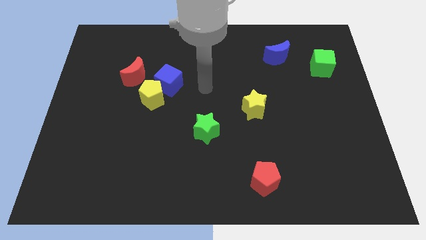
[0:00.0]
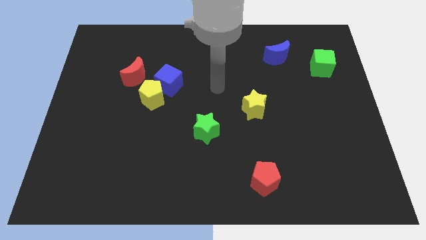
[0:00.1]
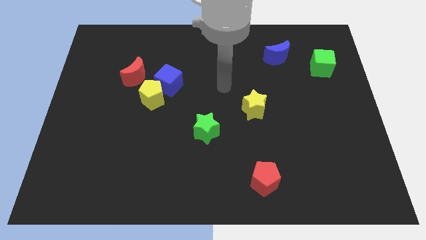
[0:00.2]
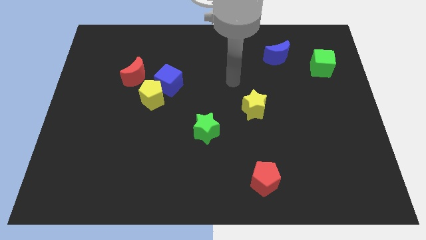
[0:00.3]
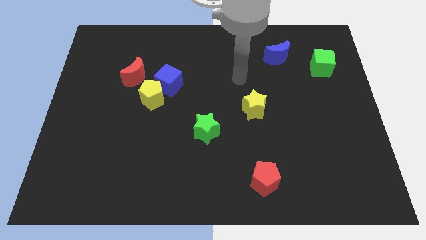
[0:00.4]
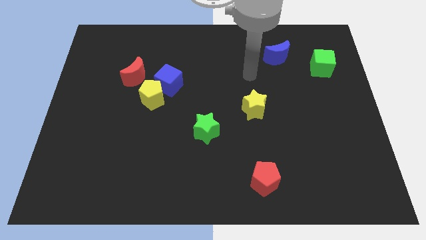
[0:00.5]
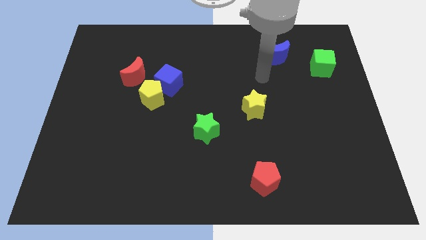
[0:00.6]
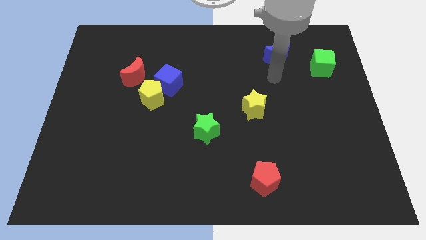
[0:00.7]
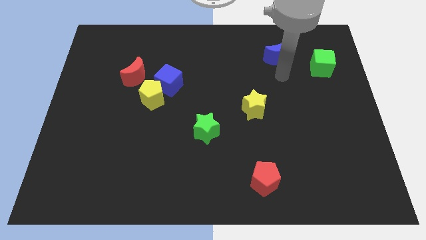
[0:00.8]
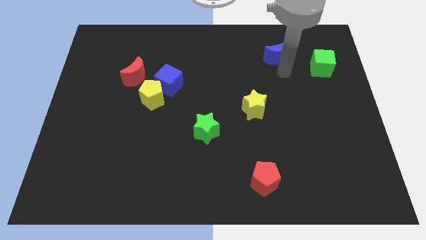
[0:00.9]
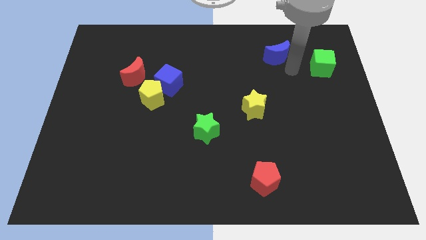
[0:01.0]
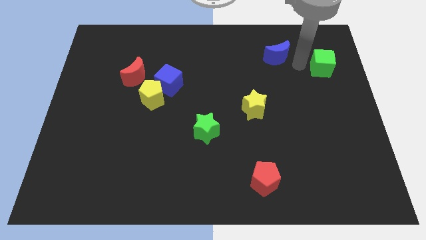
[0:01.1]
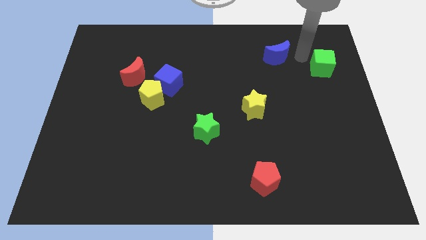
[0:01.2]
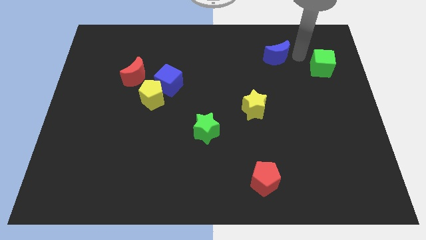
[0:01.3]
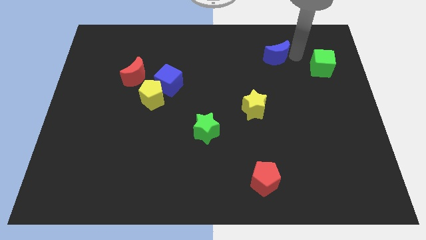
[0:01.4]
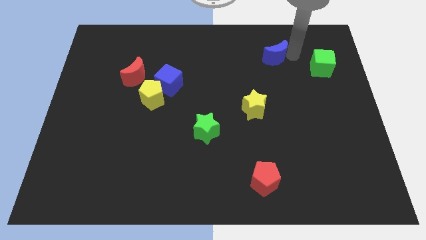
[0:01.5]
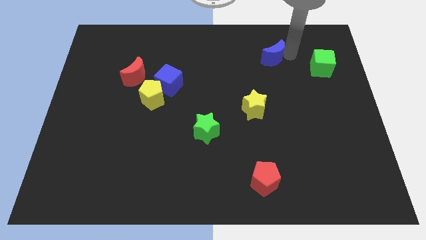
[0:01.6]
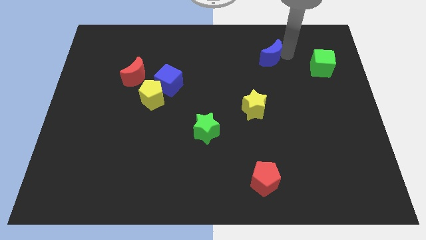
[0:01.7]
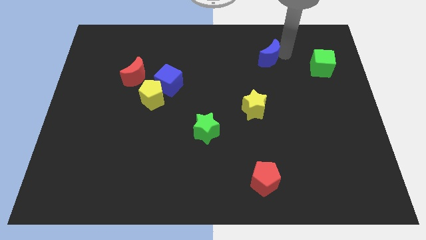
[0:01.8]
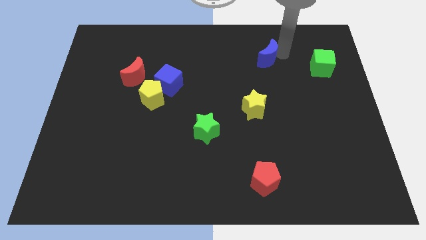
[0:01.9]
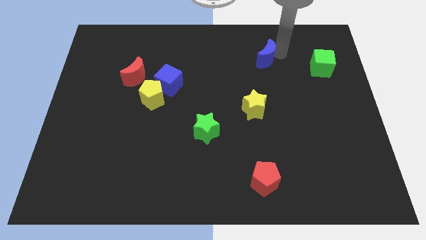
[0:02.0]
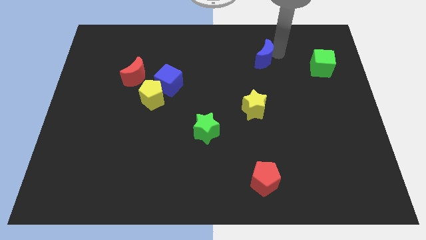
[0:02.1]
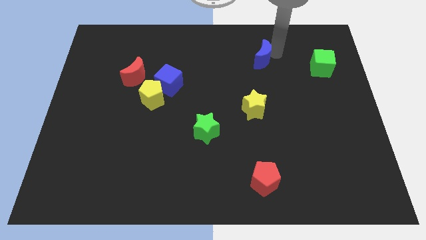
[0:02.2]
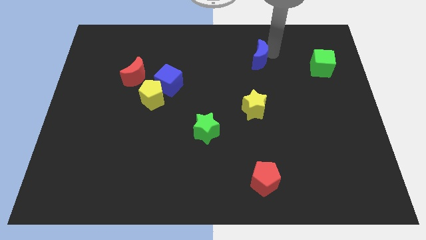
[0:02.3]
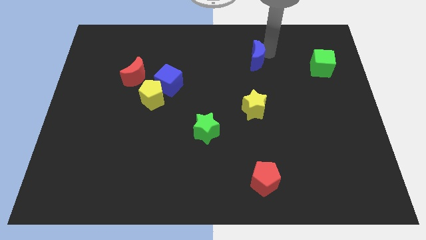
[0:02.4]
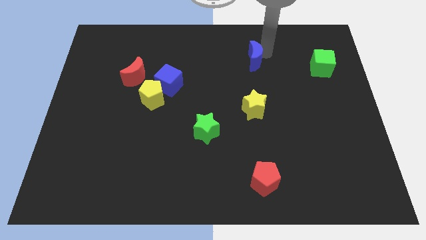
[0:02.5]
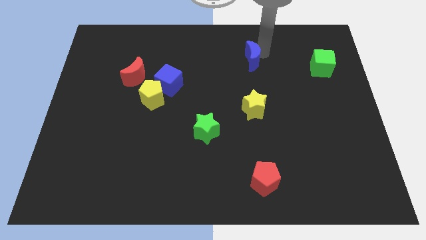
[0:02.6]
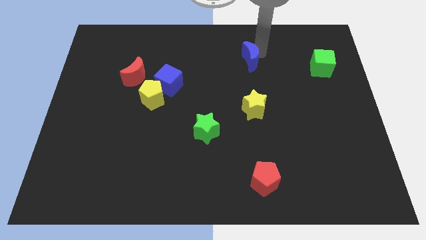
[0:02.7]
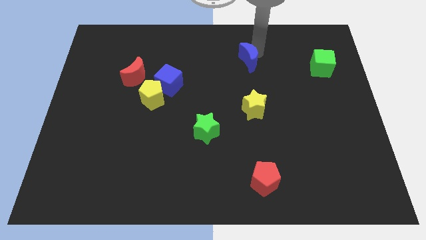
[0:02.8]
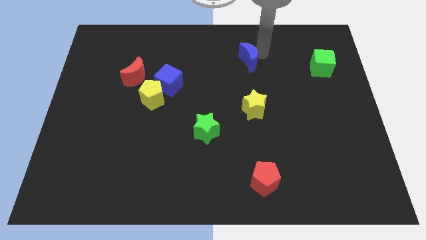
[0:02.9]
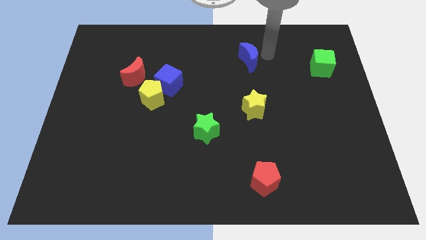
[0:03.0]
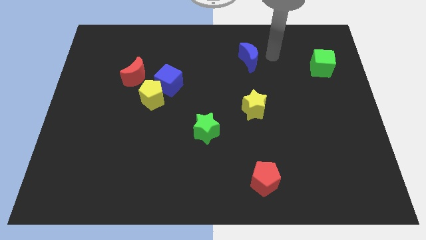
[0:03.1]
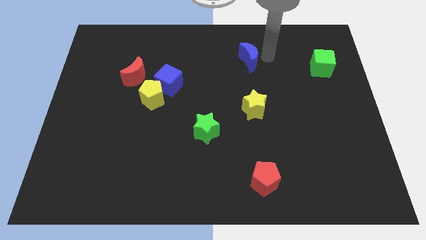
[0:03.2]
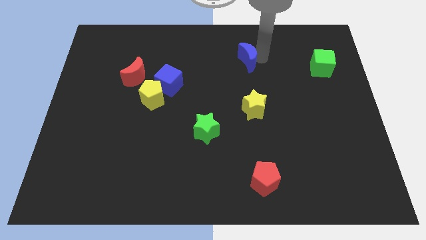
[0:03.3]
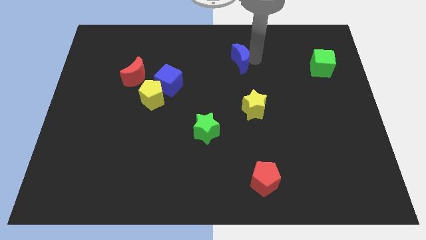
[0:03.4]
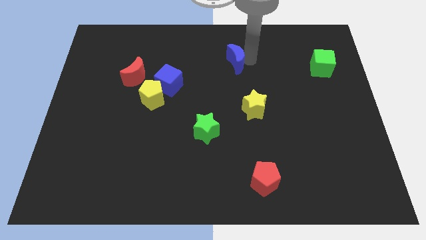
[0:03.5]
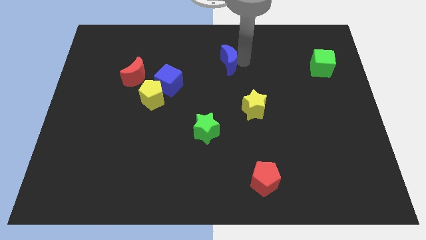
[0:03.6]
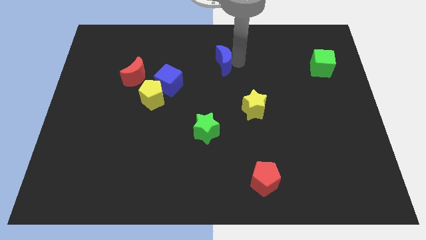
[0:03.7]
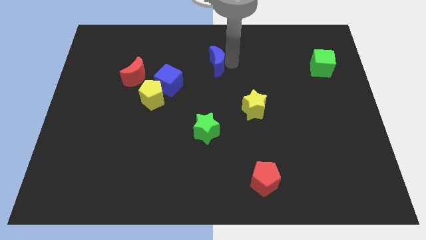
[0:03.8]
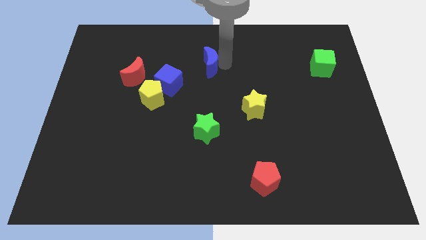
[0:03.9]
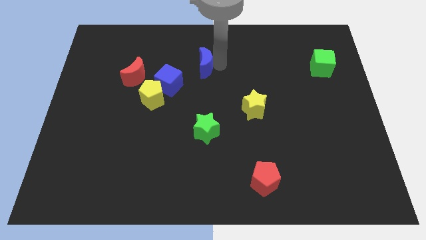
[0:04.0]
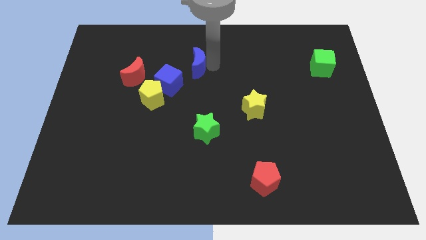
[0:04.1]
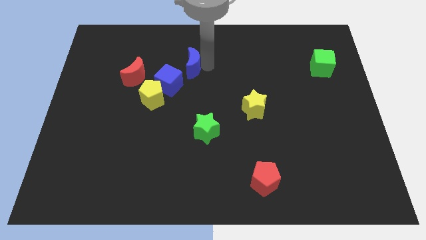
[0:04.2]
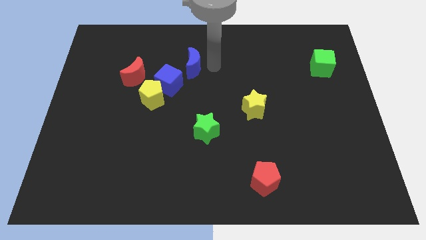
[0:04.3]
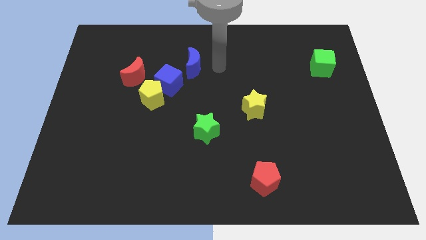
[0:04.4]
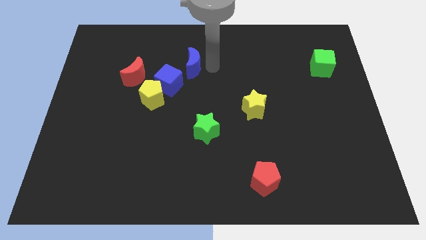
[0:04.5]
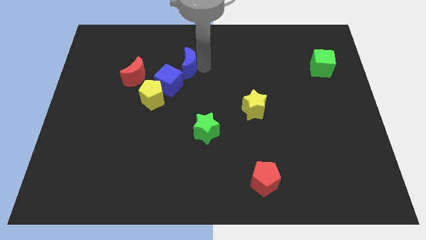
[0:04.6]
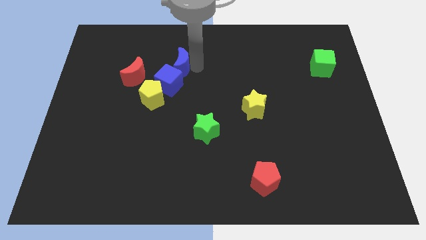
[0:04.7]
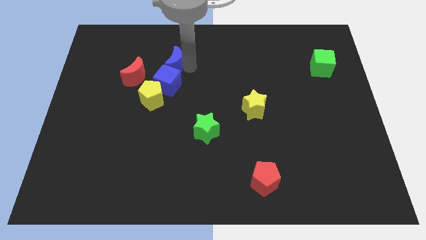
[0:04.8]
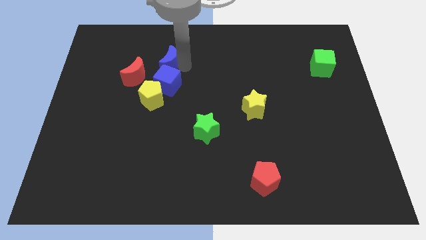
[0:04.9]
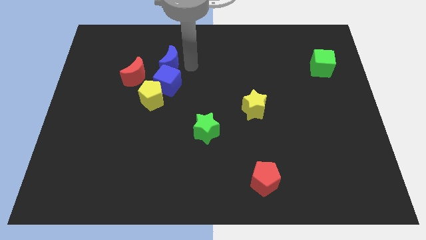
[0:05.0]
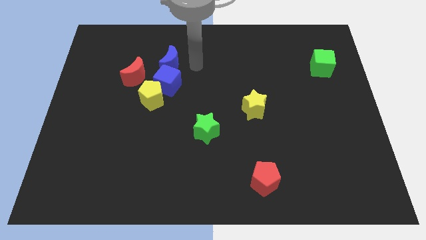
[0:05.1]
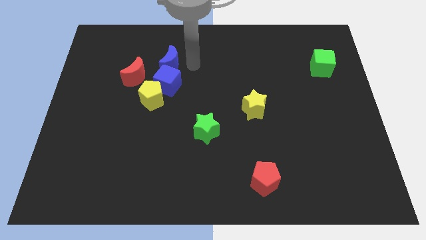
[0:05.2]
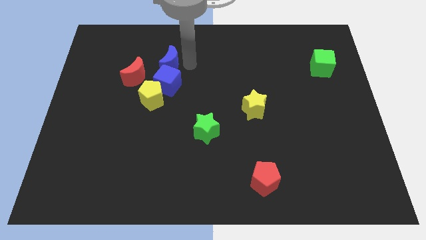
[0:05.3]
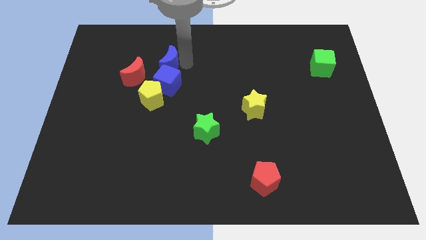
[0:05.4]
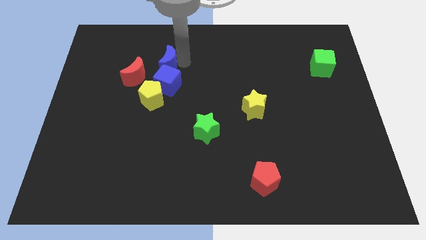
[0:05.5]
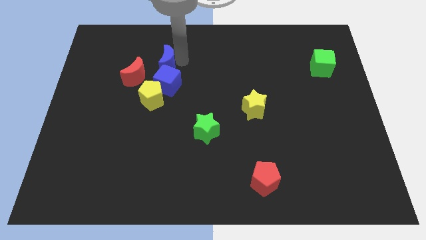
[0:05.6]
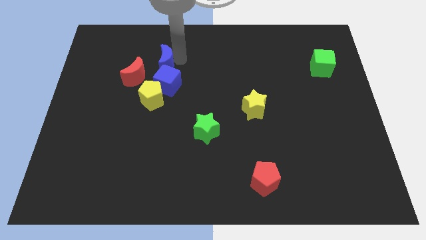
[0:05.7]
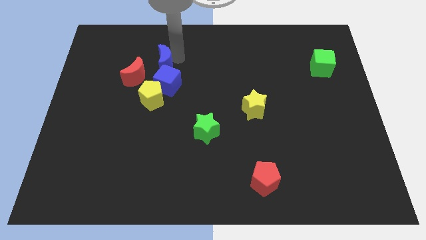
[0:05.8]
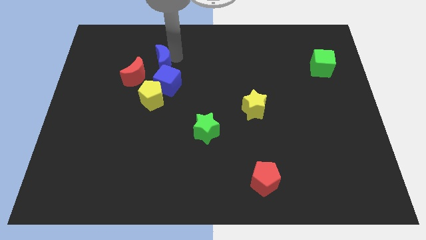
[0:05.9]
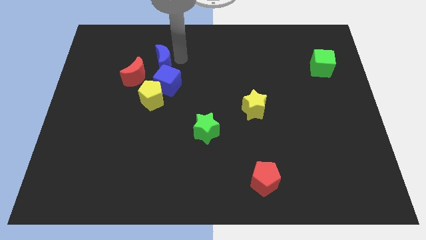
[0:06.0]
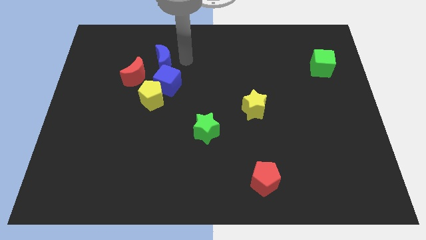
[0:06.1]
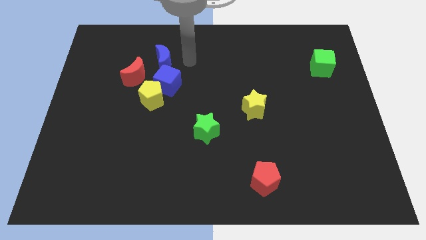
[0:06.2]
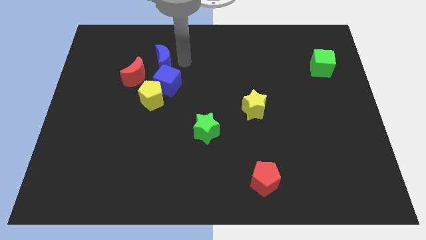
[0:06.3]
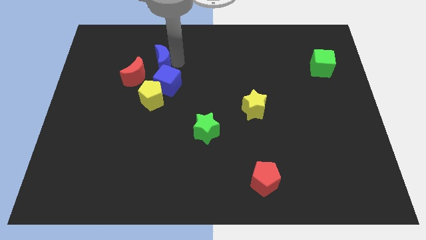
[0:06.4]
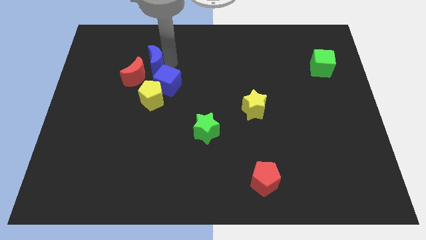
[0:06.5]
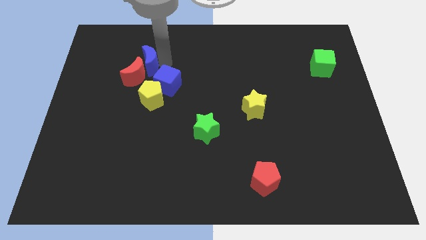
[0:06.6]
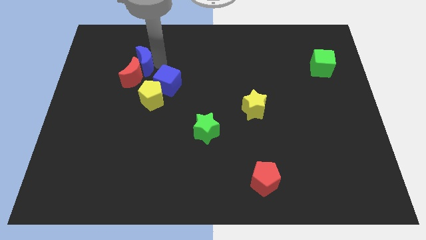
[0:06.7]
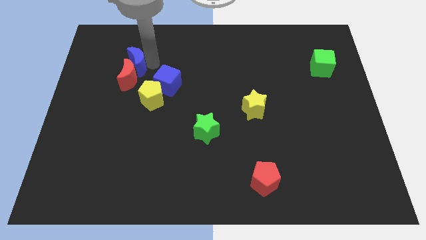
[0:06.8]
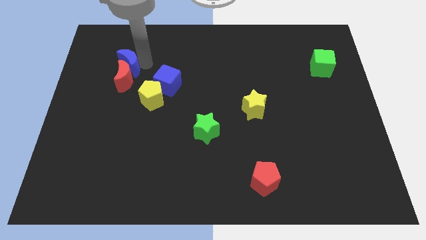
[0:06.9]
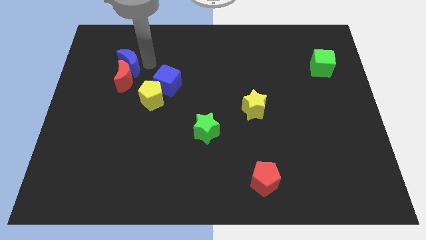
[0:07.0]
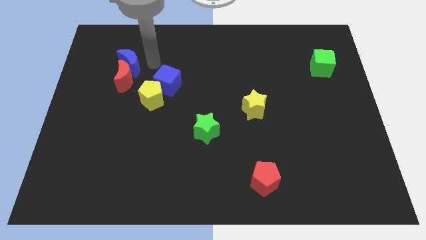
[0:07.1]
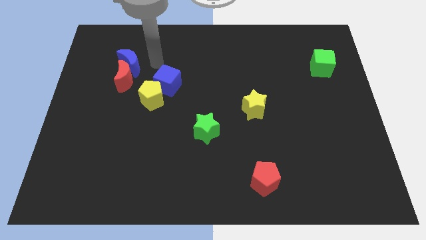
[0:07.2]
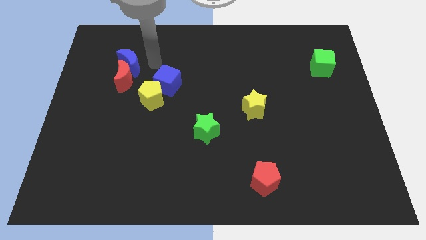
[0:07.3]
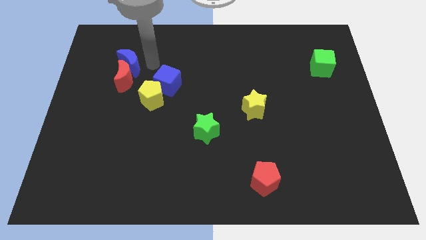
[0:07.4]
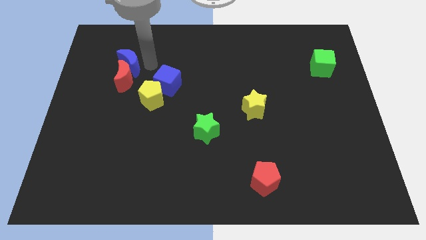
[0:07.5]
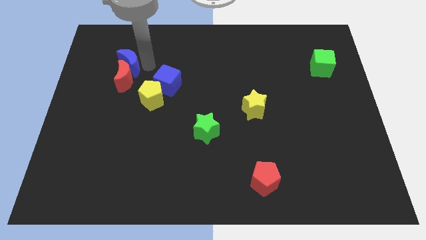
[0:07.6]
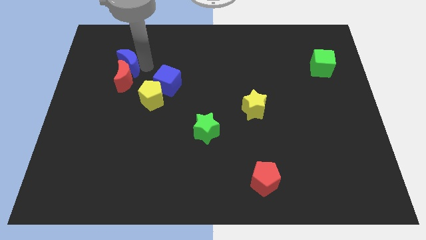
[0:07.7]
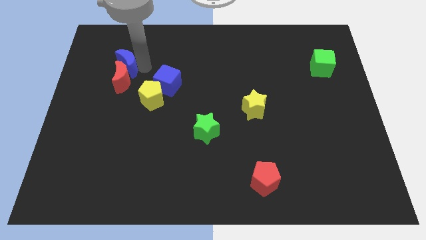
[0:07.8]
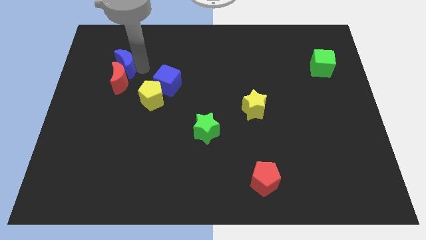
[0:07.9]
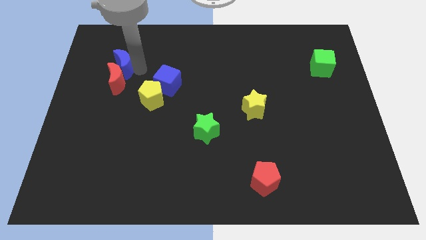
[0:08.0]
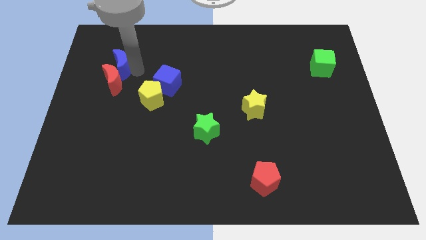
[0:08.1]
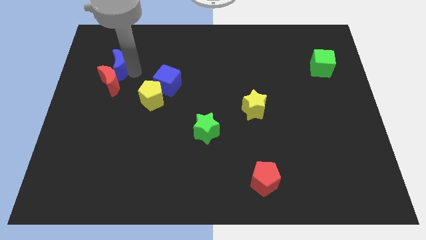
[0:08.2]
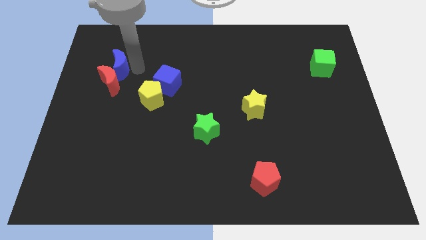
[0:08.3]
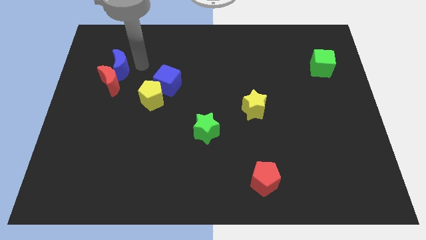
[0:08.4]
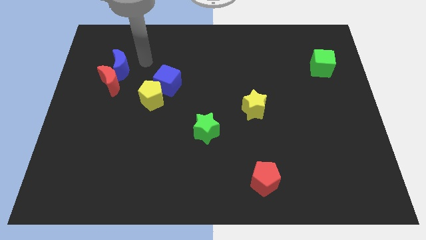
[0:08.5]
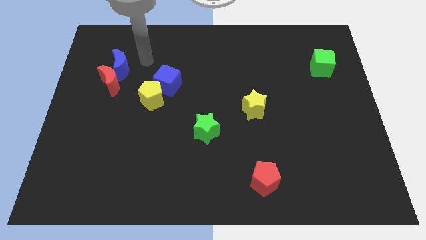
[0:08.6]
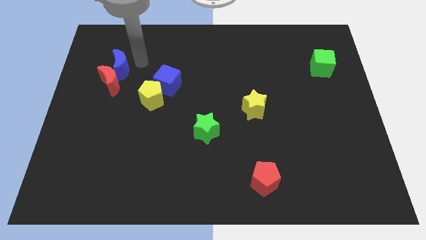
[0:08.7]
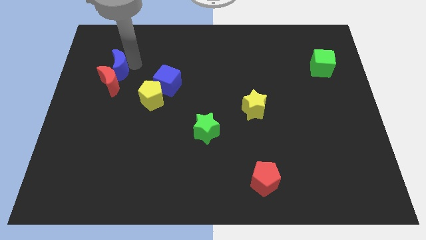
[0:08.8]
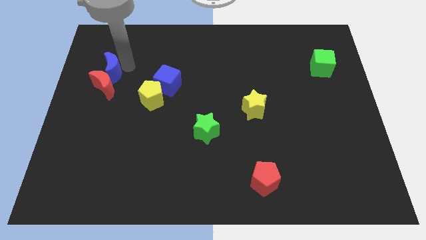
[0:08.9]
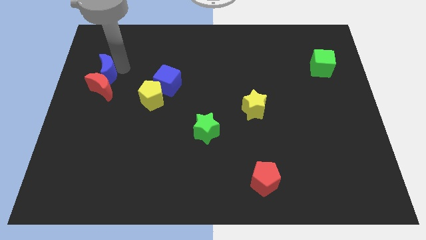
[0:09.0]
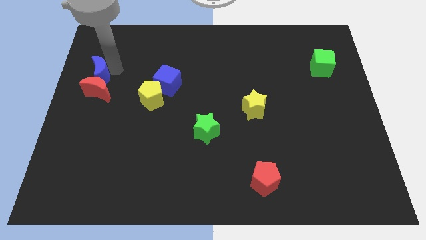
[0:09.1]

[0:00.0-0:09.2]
put the blue moon to the left side
